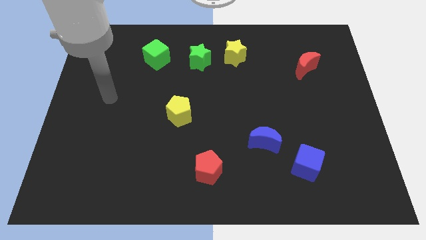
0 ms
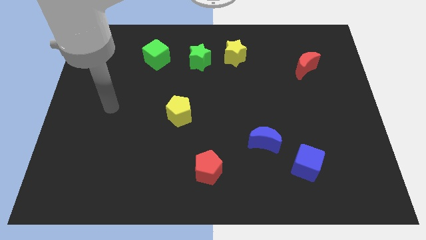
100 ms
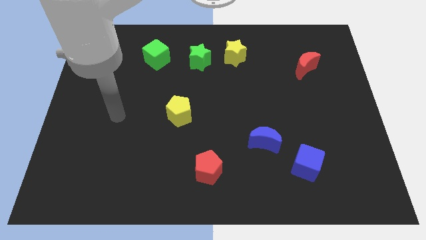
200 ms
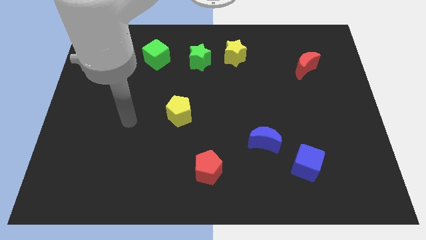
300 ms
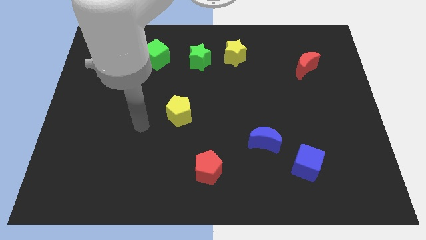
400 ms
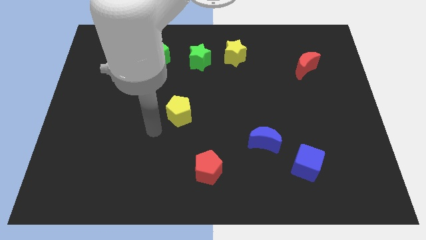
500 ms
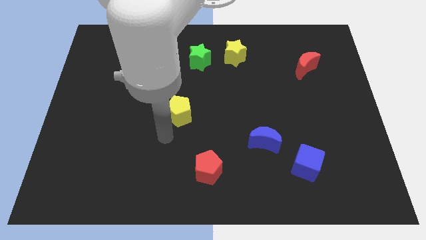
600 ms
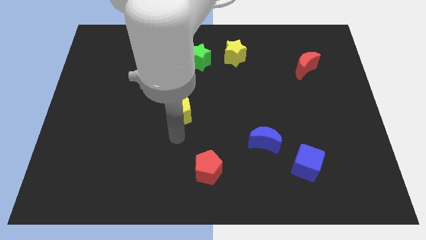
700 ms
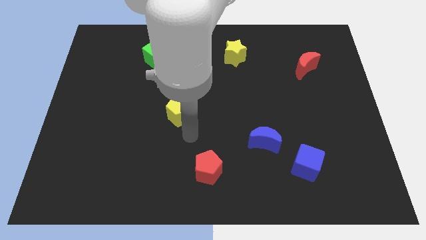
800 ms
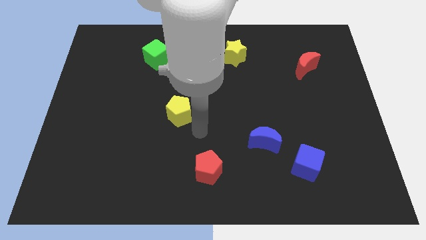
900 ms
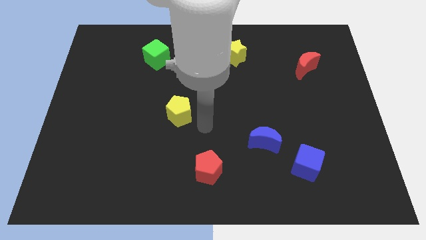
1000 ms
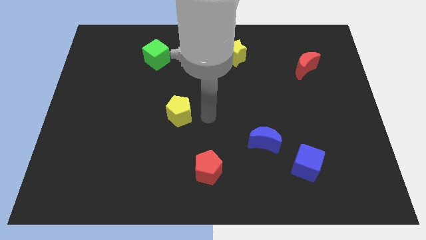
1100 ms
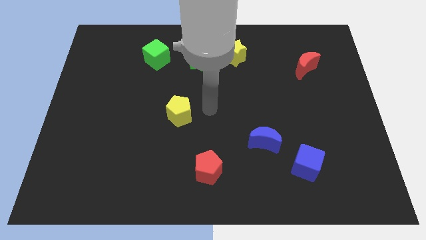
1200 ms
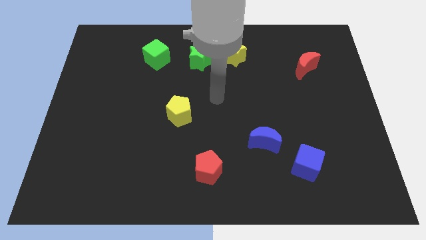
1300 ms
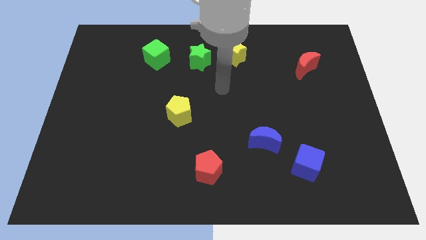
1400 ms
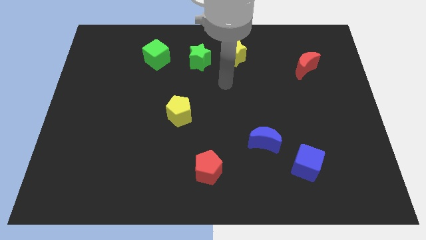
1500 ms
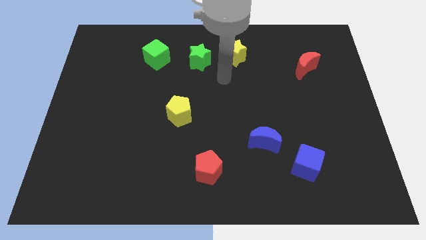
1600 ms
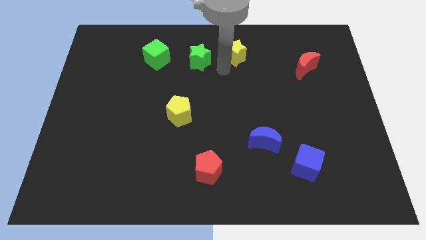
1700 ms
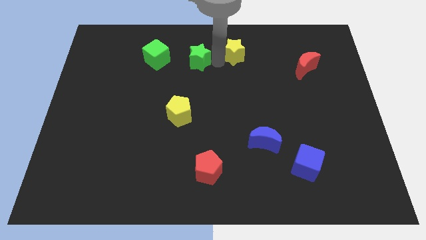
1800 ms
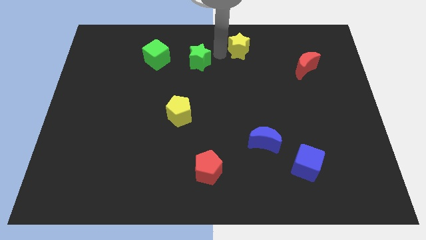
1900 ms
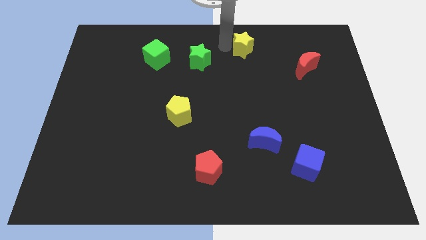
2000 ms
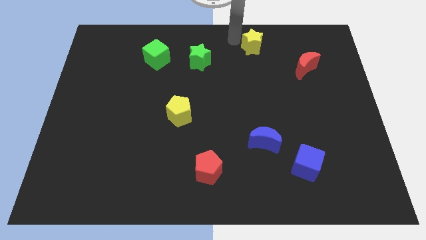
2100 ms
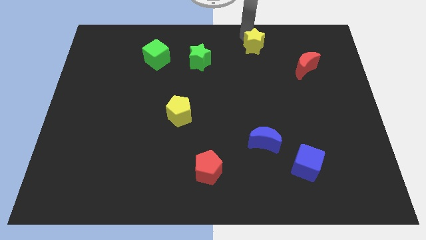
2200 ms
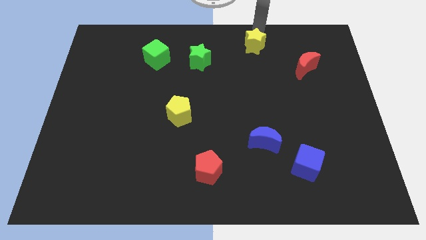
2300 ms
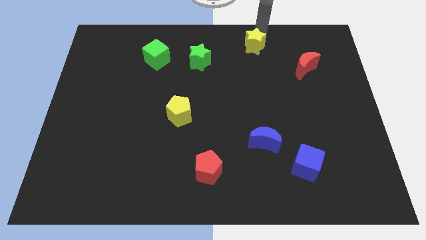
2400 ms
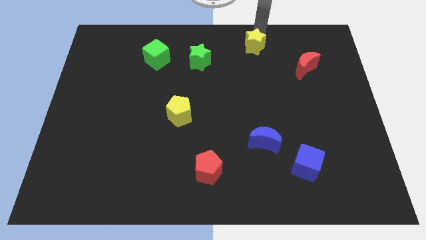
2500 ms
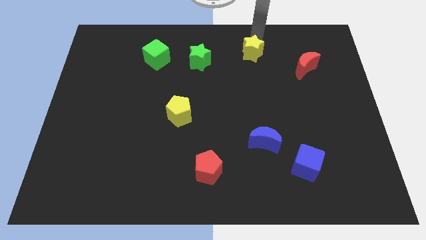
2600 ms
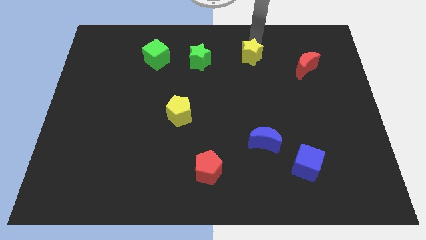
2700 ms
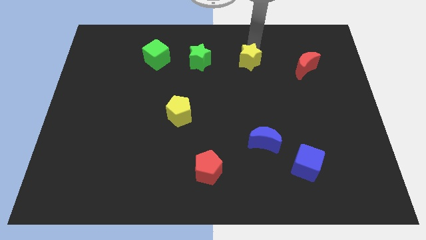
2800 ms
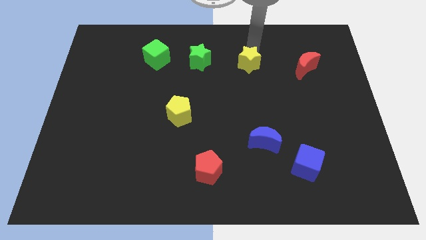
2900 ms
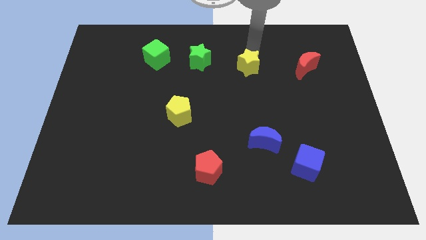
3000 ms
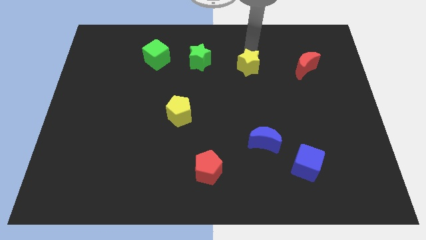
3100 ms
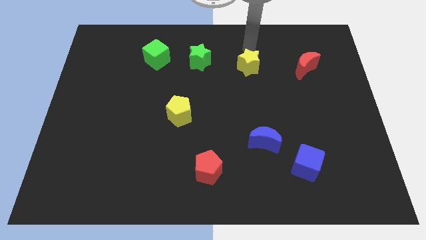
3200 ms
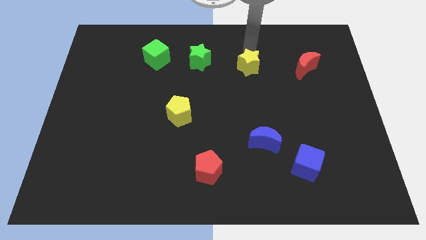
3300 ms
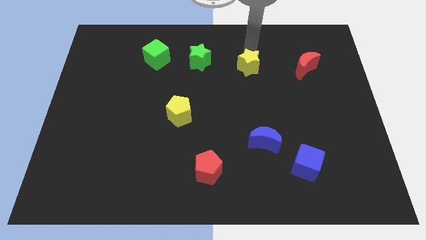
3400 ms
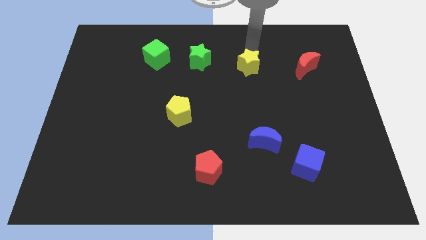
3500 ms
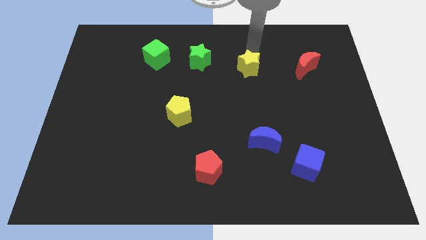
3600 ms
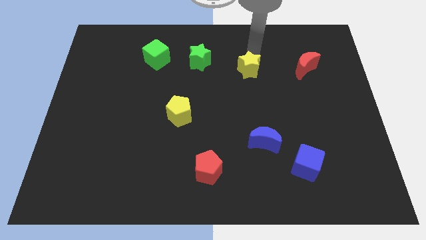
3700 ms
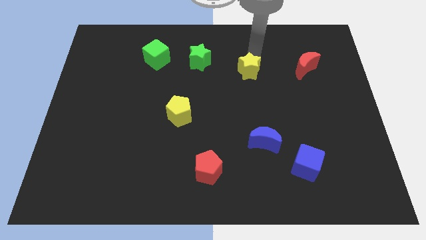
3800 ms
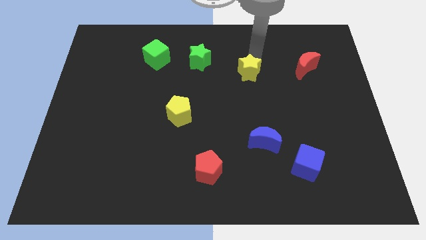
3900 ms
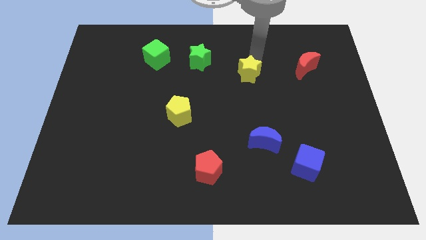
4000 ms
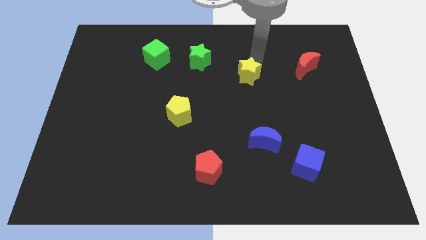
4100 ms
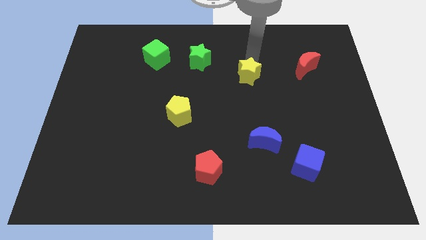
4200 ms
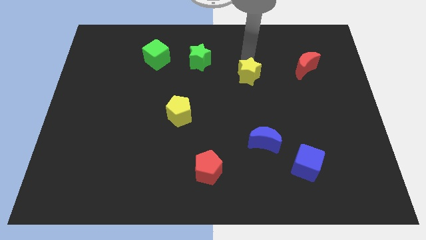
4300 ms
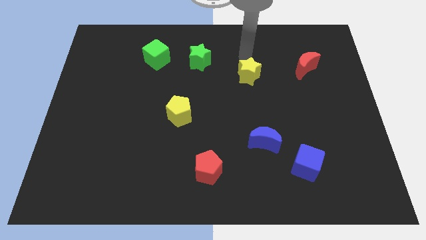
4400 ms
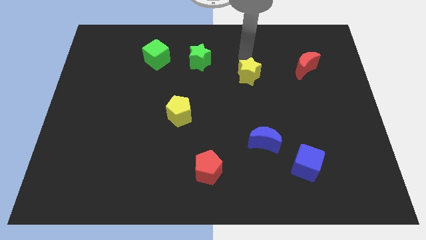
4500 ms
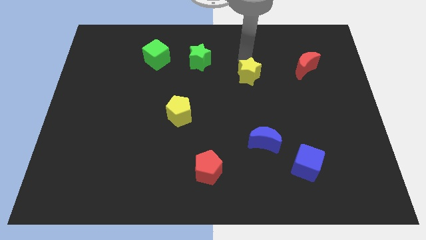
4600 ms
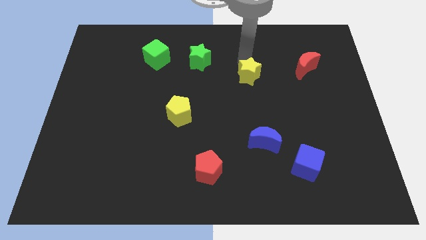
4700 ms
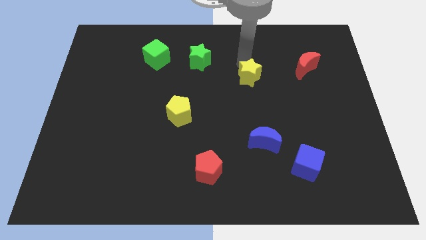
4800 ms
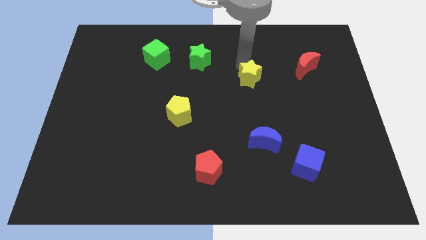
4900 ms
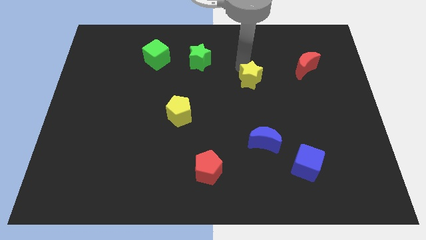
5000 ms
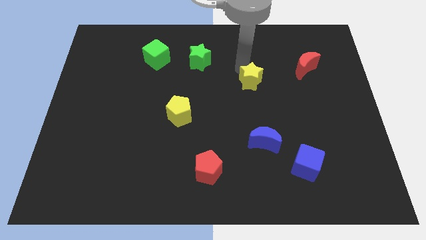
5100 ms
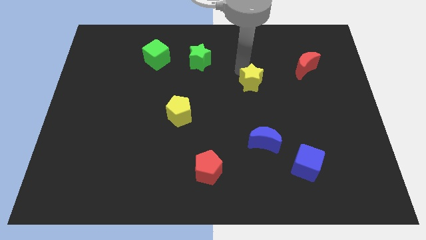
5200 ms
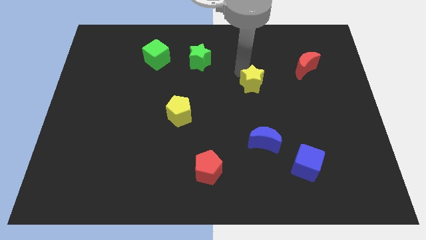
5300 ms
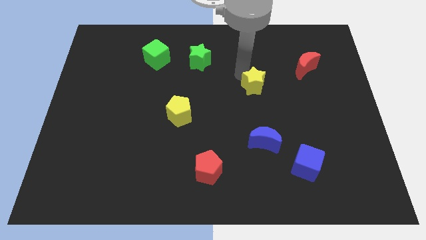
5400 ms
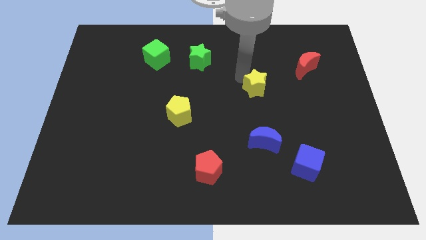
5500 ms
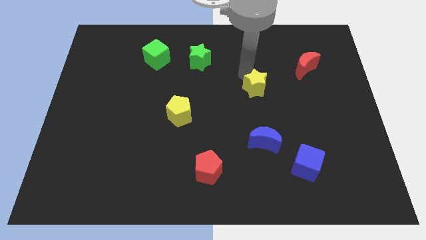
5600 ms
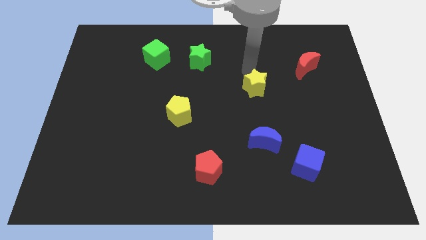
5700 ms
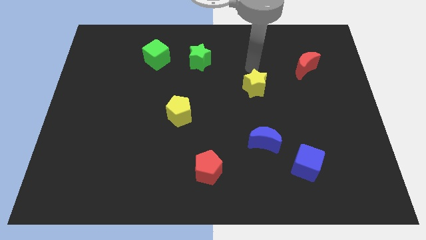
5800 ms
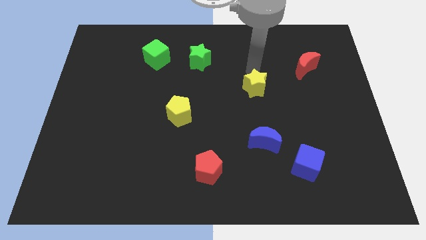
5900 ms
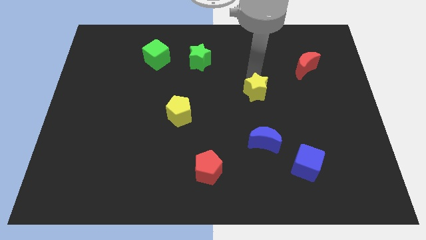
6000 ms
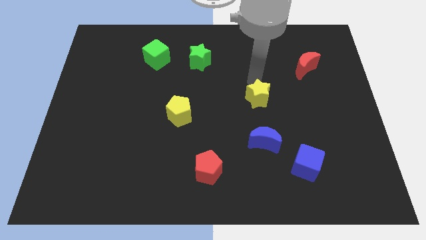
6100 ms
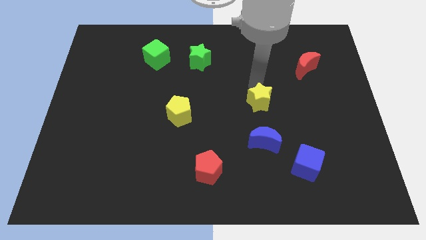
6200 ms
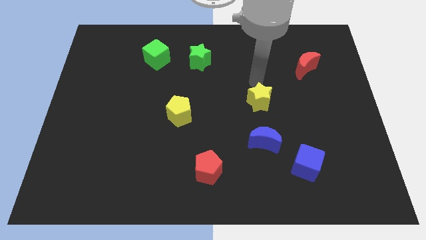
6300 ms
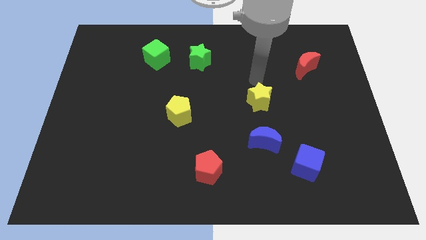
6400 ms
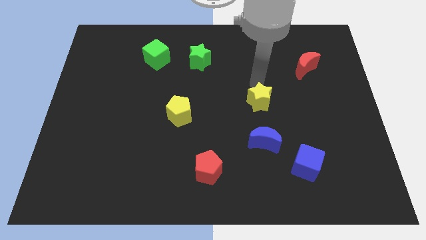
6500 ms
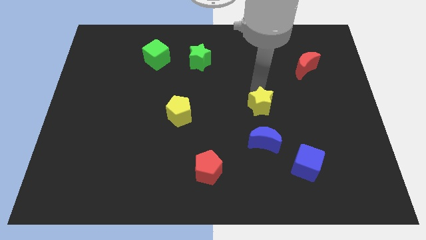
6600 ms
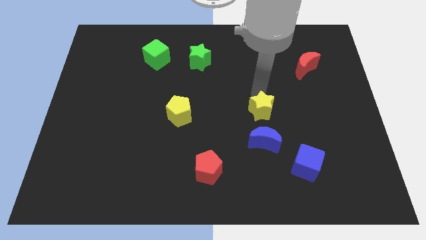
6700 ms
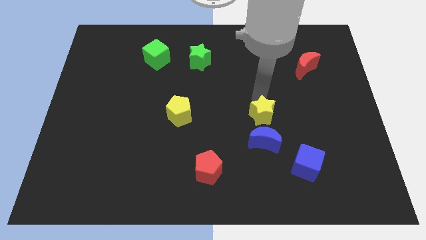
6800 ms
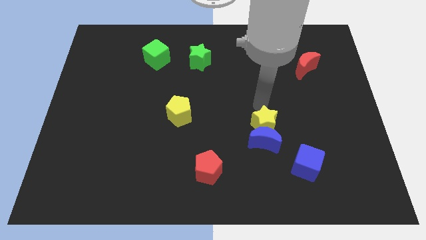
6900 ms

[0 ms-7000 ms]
slide the yellow star towards the blue moon
